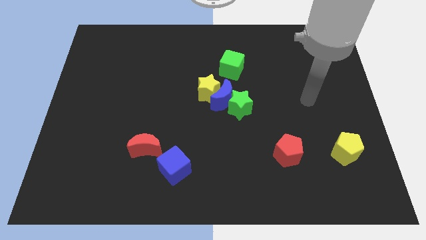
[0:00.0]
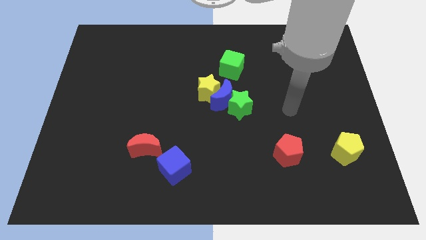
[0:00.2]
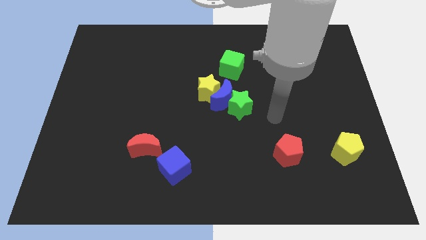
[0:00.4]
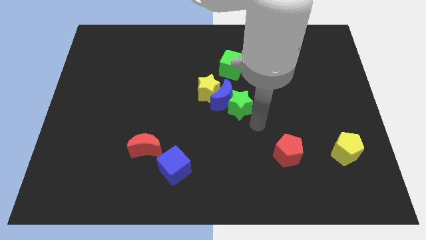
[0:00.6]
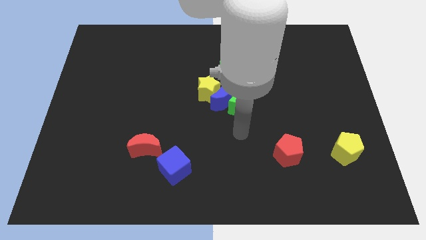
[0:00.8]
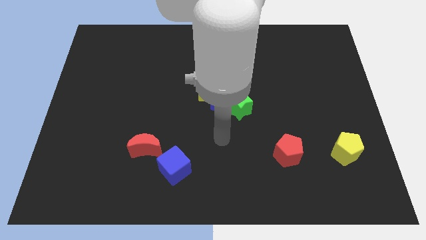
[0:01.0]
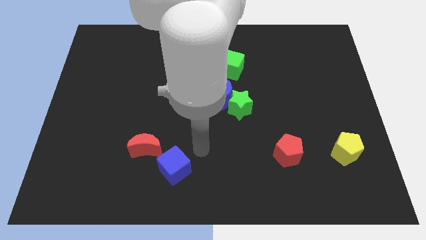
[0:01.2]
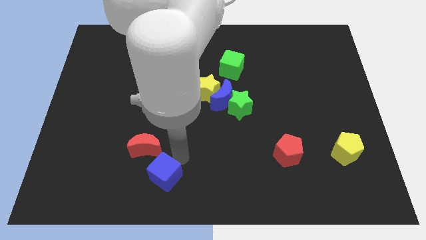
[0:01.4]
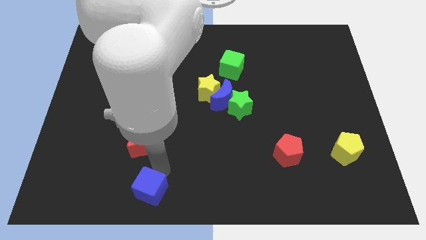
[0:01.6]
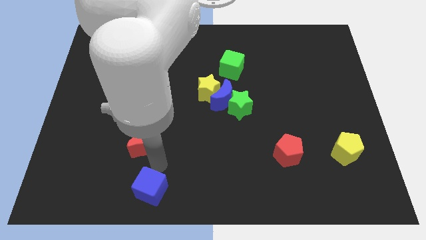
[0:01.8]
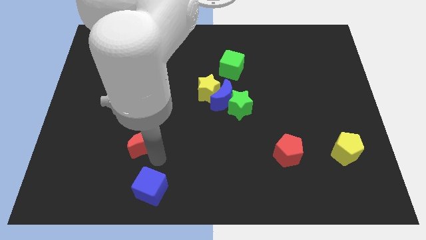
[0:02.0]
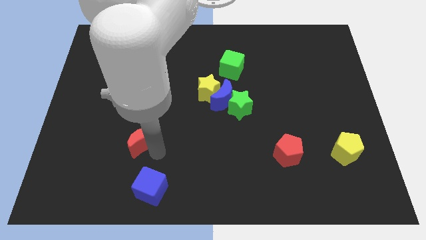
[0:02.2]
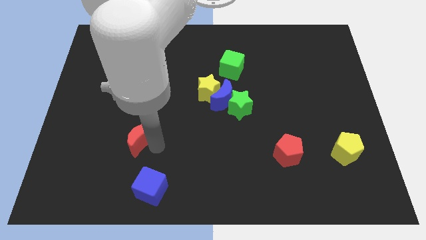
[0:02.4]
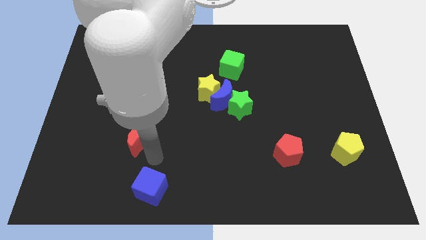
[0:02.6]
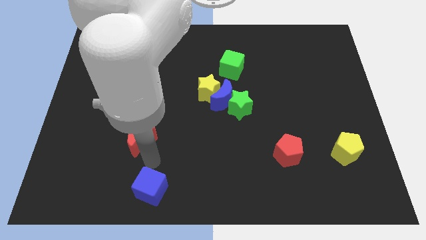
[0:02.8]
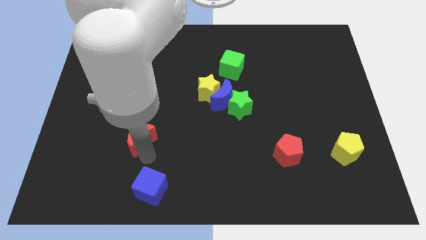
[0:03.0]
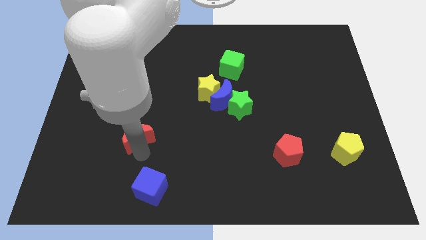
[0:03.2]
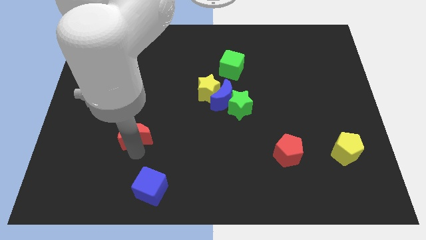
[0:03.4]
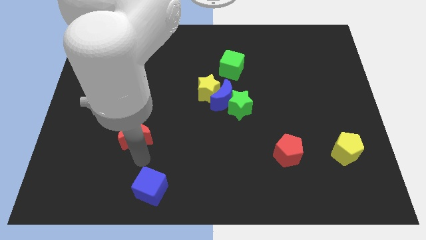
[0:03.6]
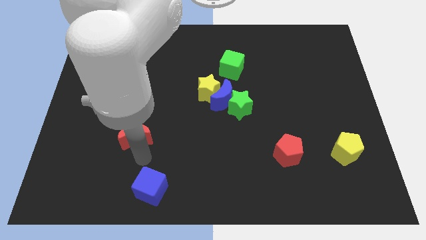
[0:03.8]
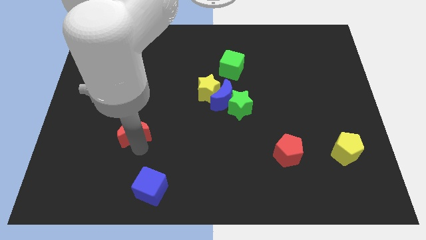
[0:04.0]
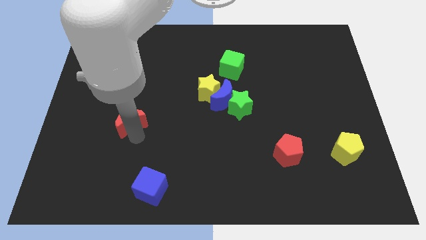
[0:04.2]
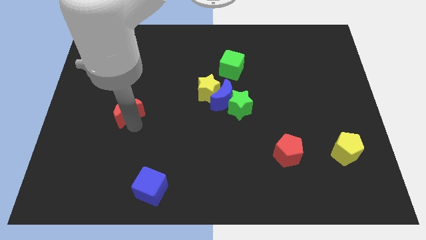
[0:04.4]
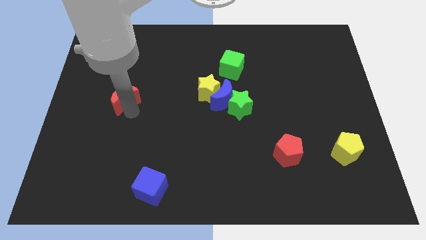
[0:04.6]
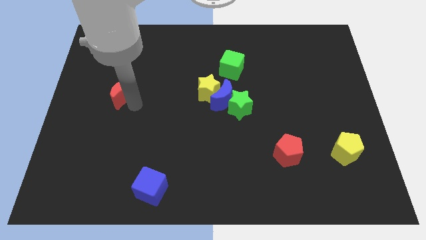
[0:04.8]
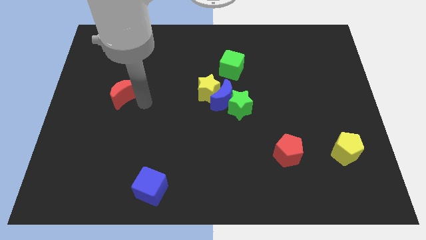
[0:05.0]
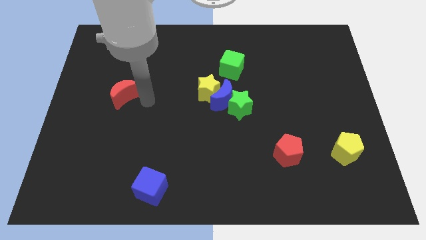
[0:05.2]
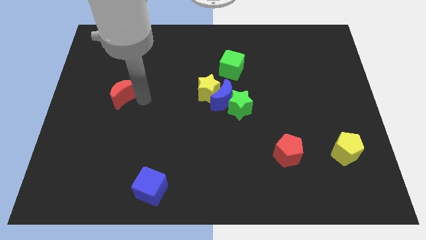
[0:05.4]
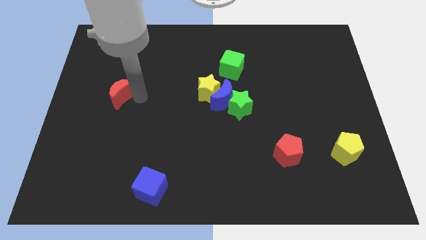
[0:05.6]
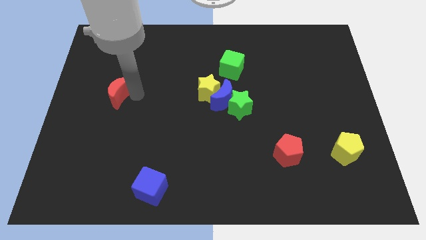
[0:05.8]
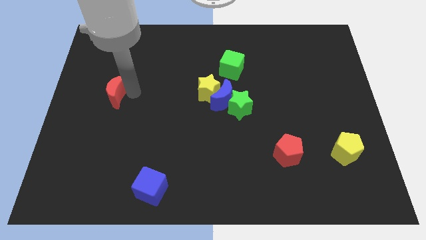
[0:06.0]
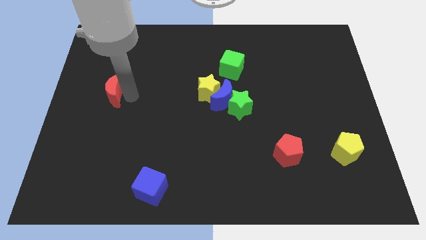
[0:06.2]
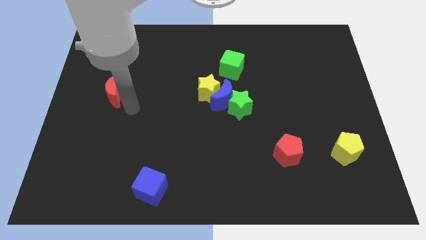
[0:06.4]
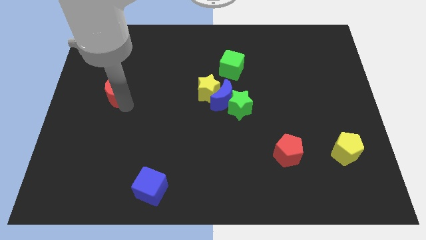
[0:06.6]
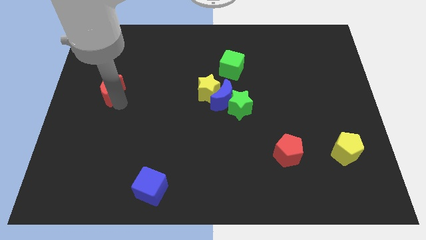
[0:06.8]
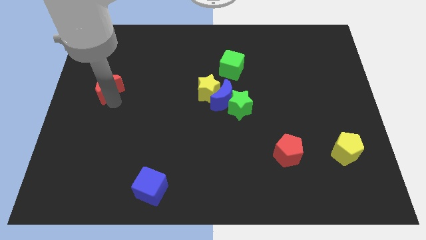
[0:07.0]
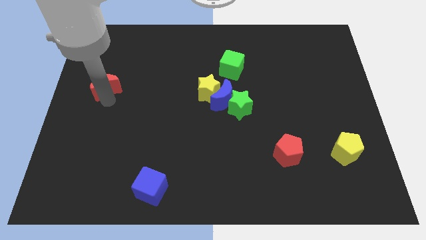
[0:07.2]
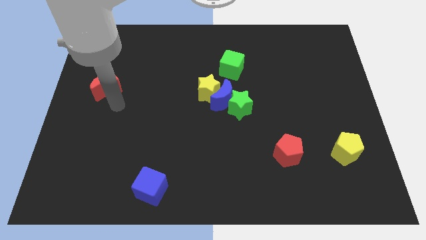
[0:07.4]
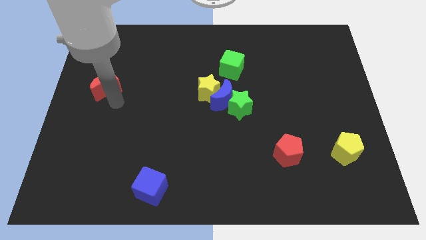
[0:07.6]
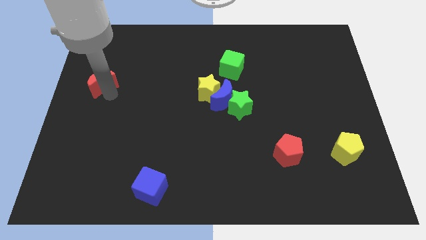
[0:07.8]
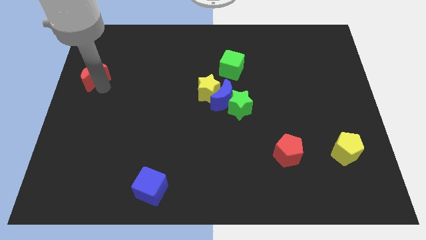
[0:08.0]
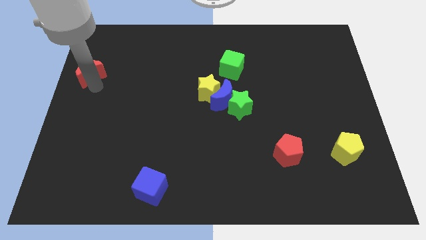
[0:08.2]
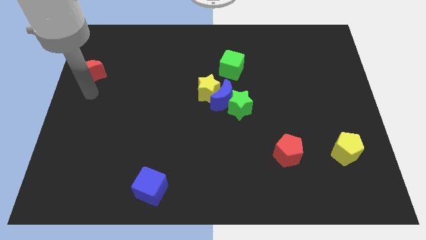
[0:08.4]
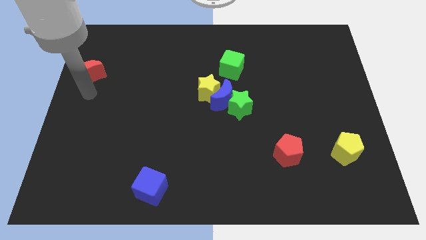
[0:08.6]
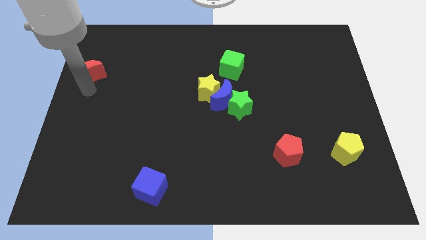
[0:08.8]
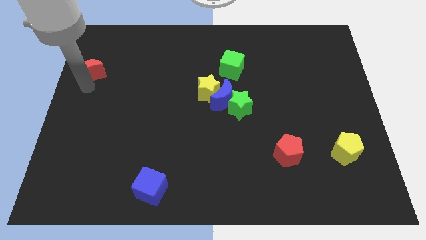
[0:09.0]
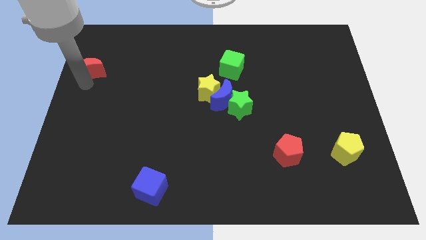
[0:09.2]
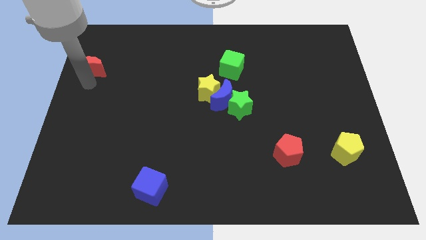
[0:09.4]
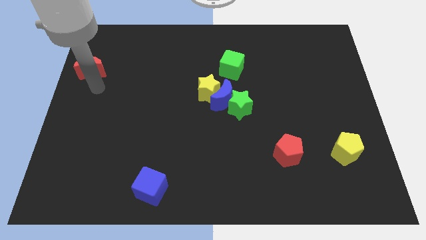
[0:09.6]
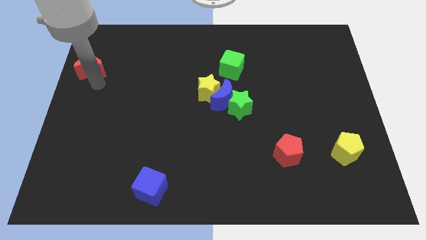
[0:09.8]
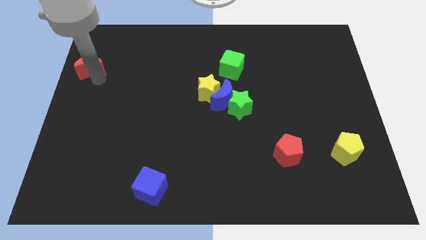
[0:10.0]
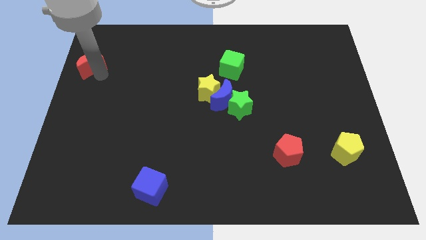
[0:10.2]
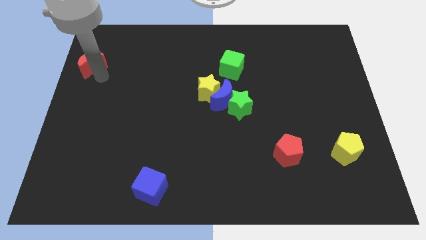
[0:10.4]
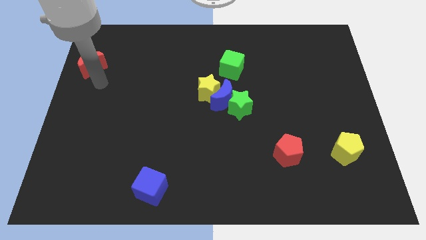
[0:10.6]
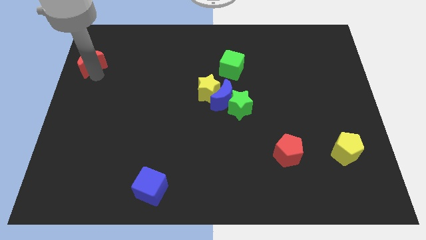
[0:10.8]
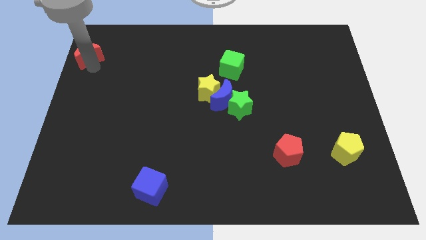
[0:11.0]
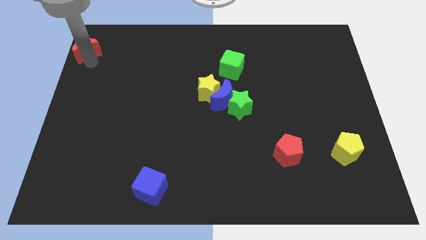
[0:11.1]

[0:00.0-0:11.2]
push the red moon to the upper left corner

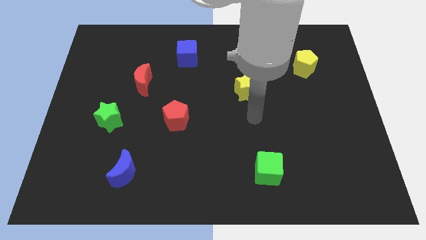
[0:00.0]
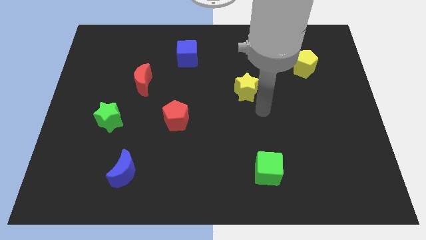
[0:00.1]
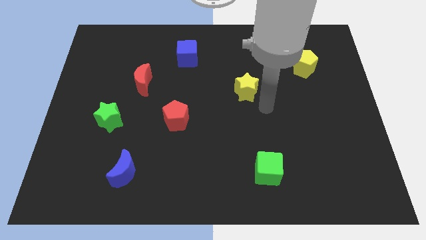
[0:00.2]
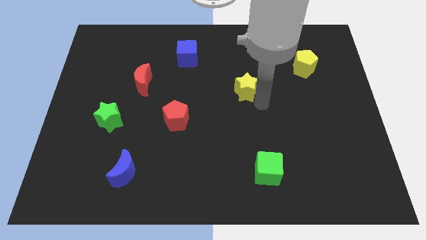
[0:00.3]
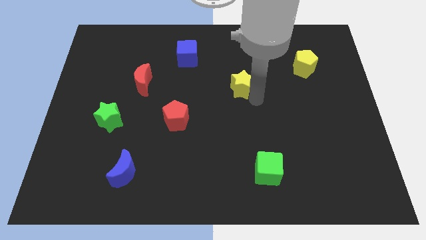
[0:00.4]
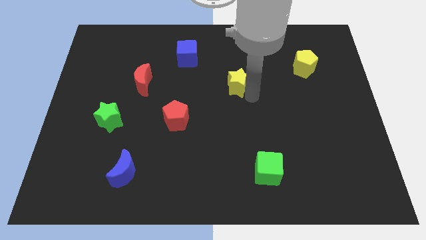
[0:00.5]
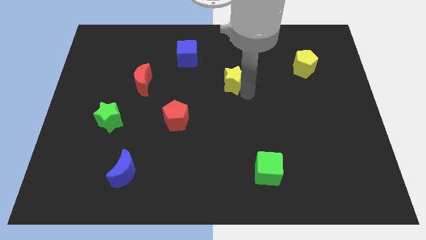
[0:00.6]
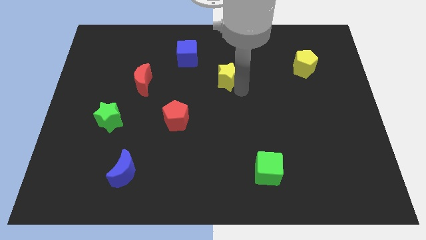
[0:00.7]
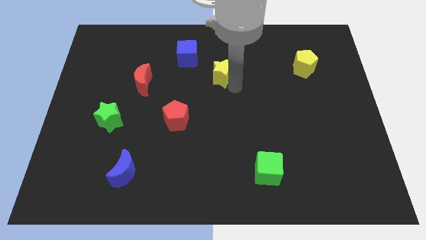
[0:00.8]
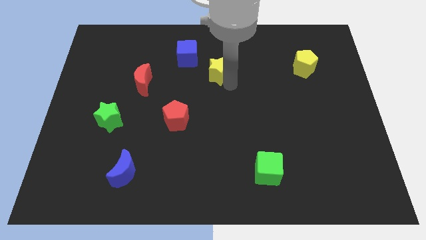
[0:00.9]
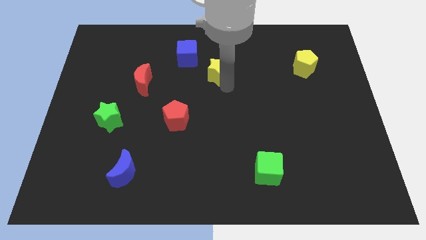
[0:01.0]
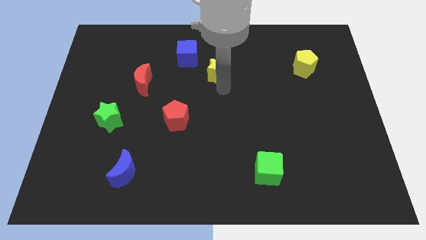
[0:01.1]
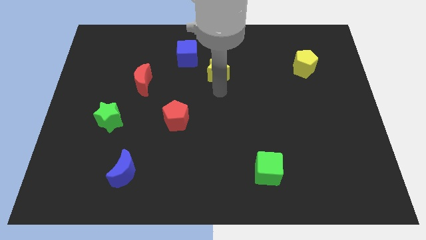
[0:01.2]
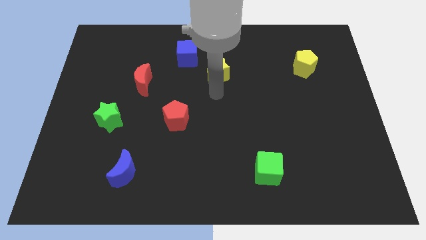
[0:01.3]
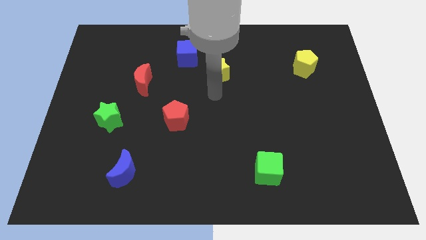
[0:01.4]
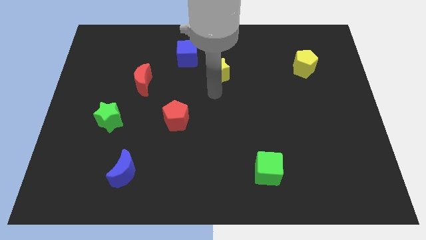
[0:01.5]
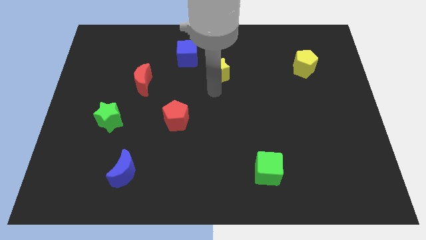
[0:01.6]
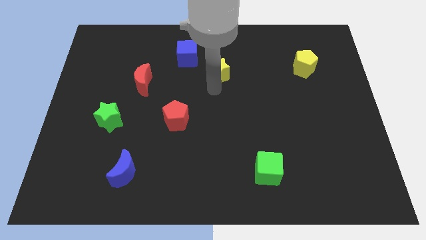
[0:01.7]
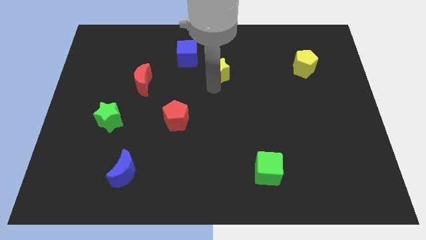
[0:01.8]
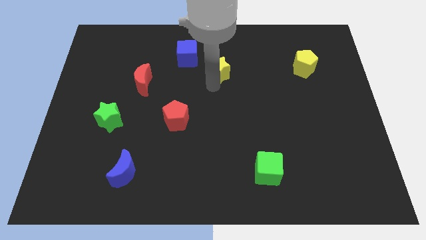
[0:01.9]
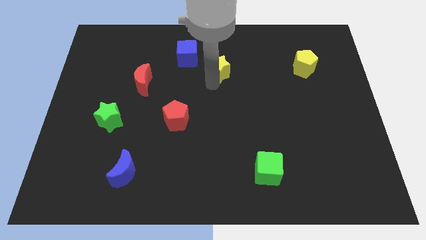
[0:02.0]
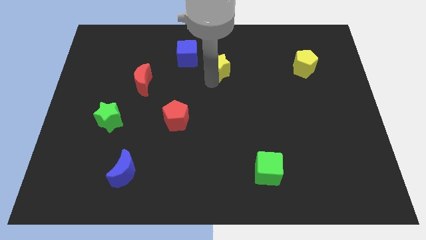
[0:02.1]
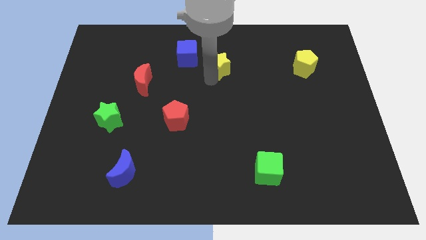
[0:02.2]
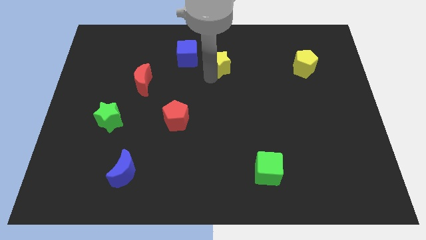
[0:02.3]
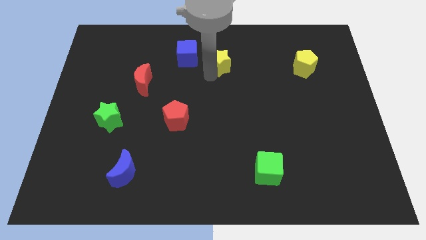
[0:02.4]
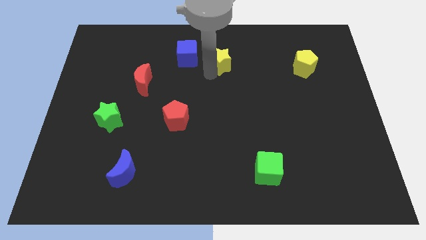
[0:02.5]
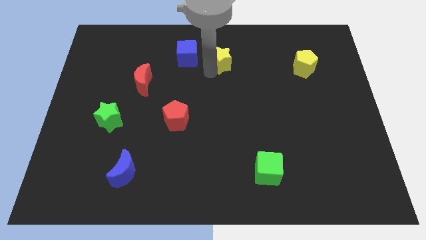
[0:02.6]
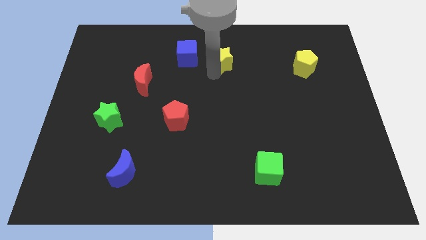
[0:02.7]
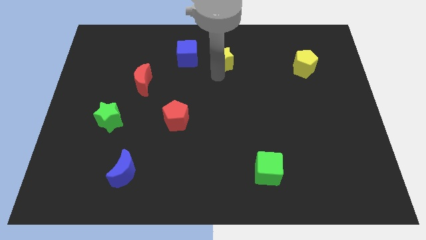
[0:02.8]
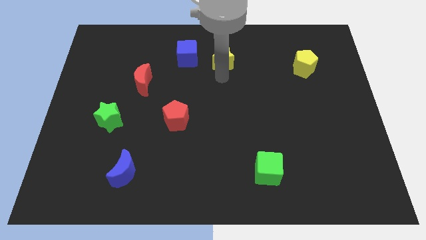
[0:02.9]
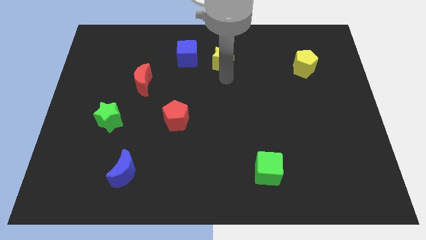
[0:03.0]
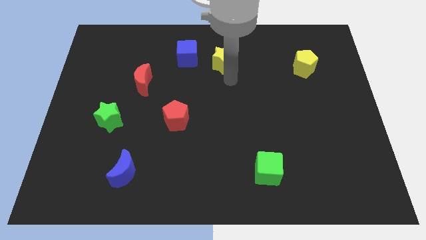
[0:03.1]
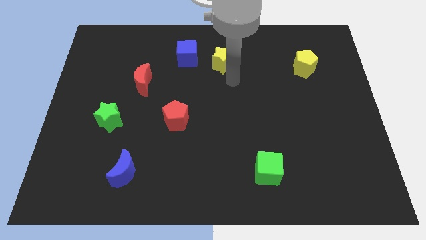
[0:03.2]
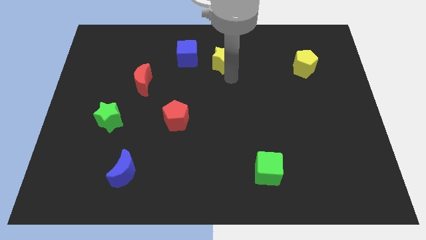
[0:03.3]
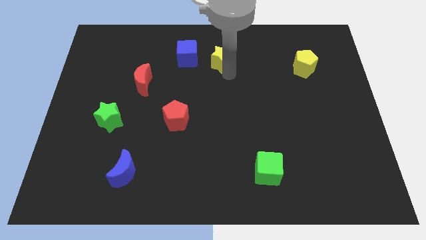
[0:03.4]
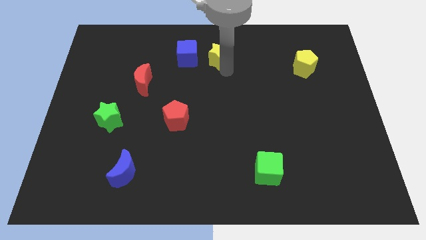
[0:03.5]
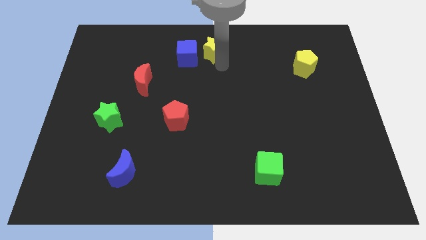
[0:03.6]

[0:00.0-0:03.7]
move the yellow star to the top
